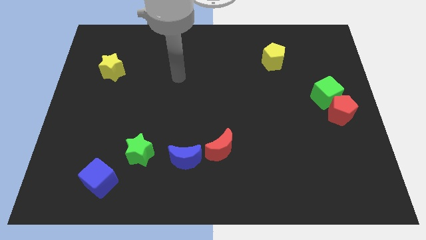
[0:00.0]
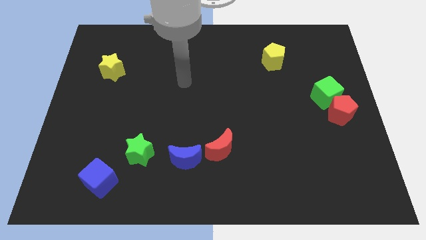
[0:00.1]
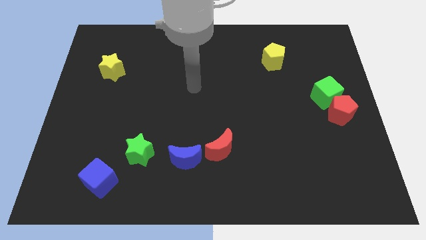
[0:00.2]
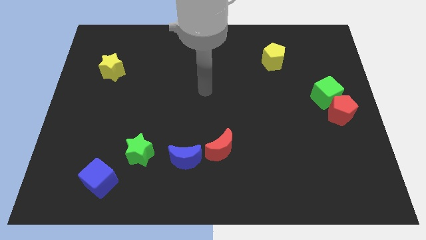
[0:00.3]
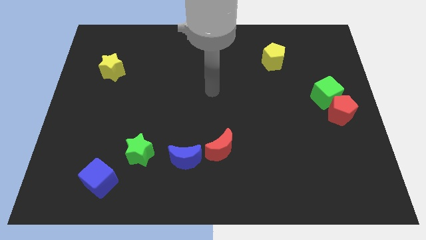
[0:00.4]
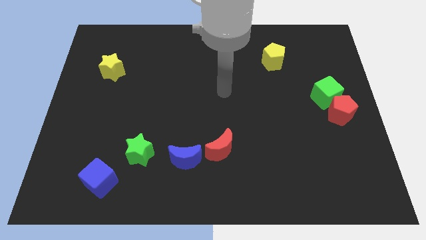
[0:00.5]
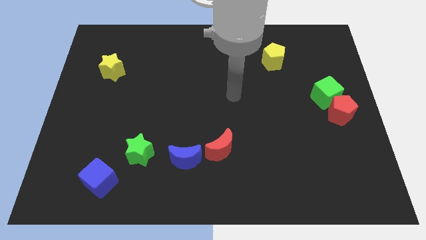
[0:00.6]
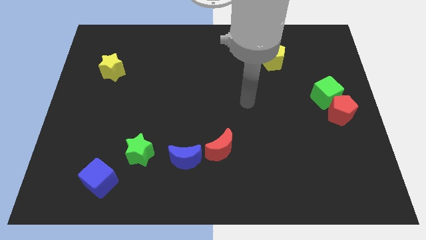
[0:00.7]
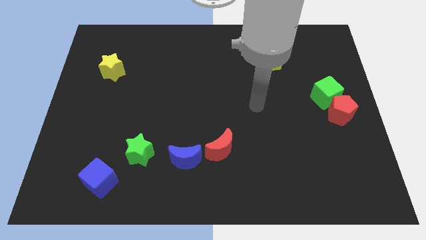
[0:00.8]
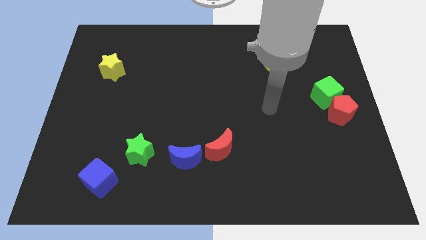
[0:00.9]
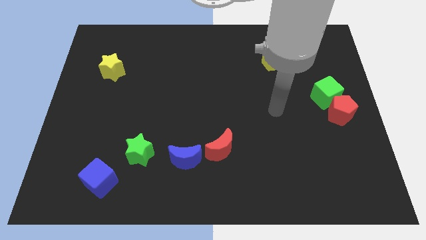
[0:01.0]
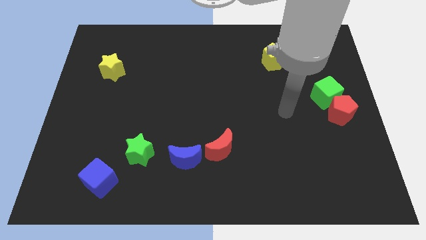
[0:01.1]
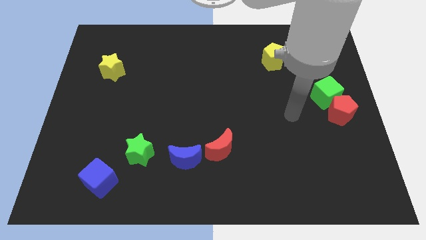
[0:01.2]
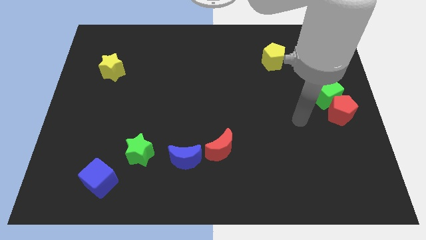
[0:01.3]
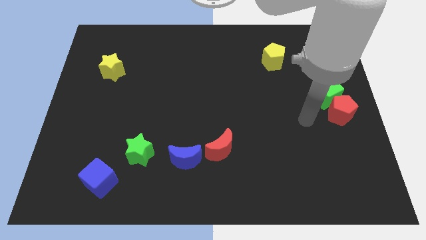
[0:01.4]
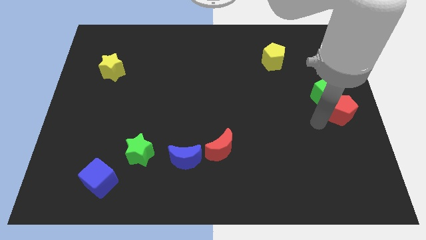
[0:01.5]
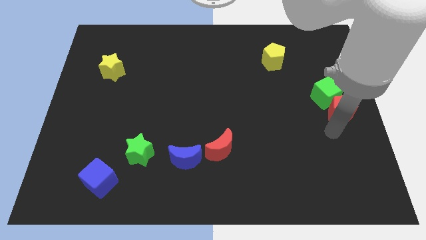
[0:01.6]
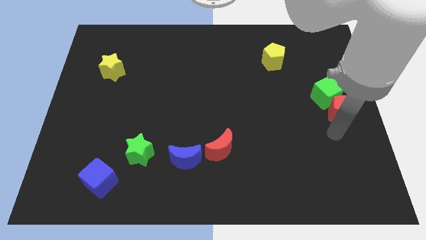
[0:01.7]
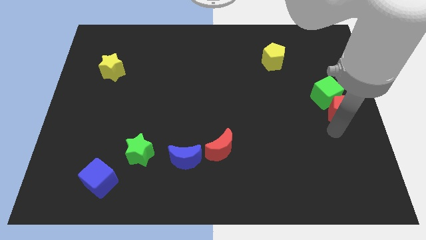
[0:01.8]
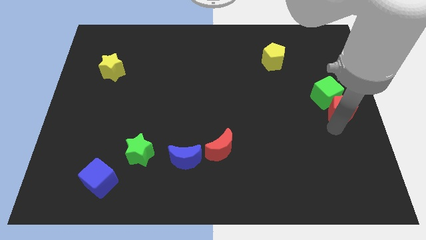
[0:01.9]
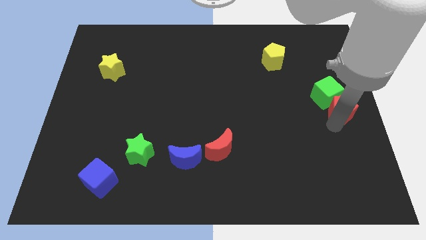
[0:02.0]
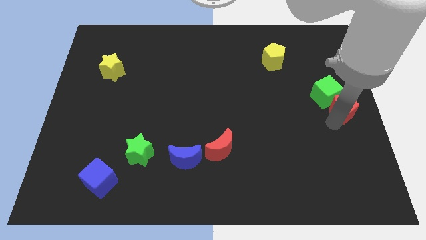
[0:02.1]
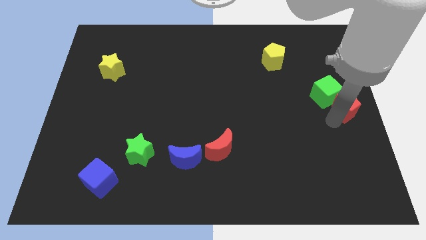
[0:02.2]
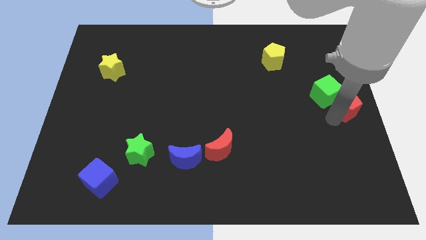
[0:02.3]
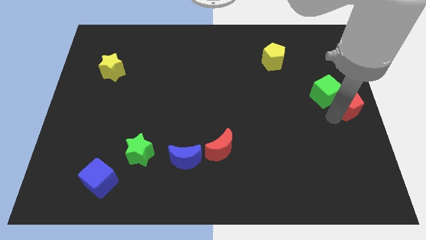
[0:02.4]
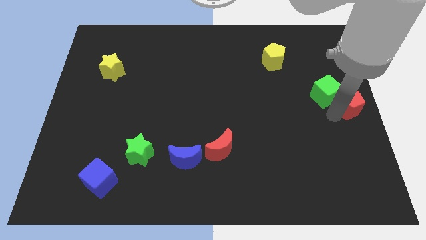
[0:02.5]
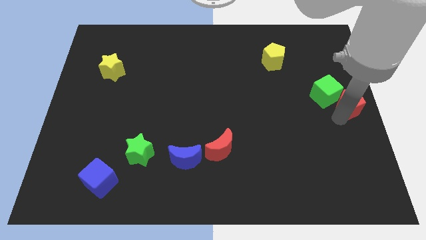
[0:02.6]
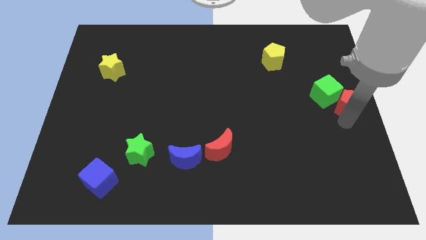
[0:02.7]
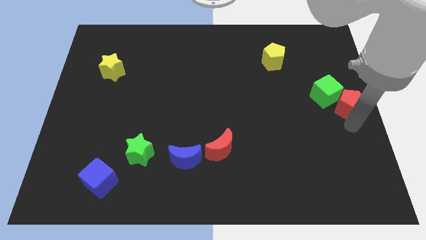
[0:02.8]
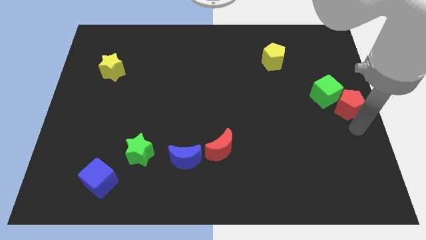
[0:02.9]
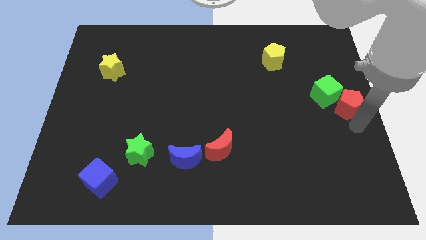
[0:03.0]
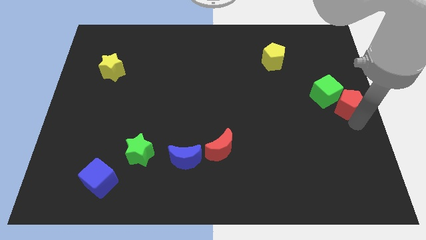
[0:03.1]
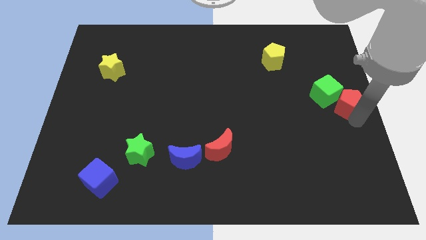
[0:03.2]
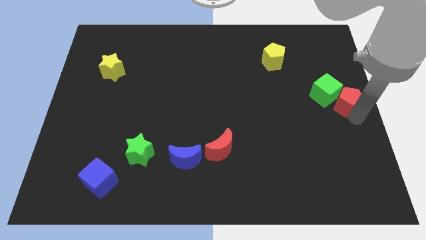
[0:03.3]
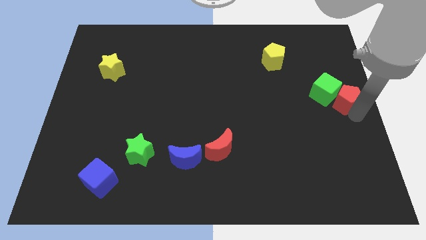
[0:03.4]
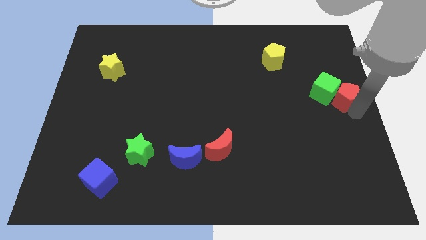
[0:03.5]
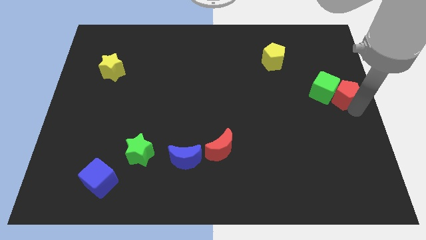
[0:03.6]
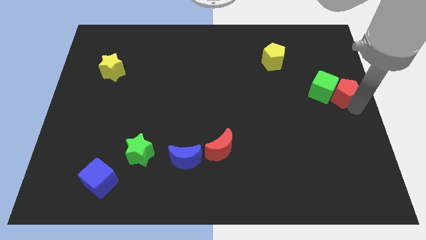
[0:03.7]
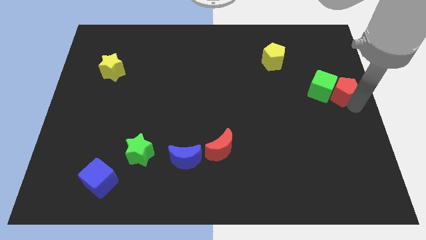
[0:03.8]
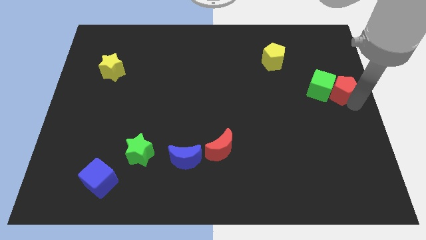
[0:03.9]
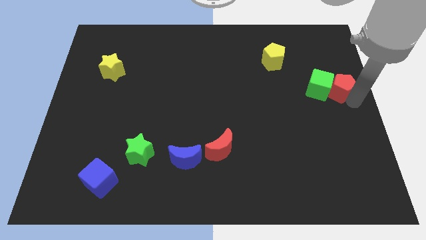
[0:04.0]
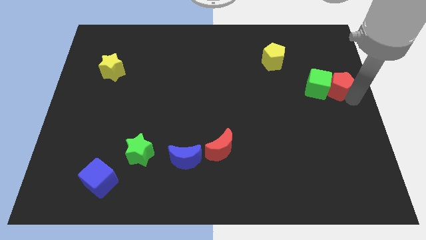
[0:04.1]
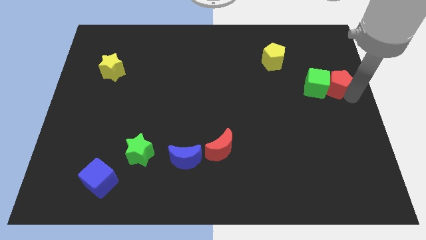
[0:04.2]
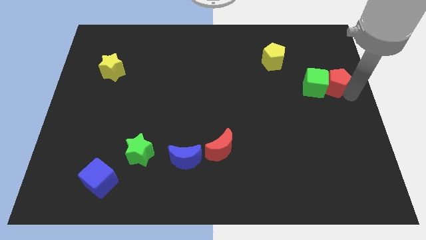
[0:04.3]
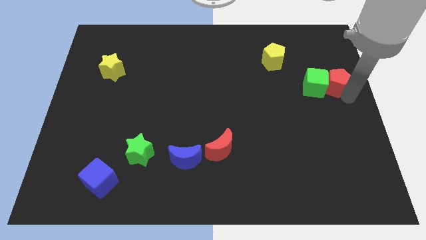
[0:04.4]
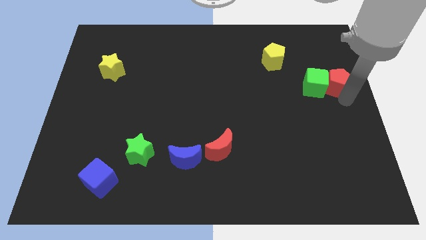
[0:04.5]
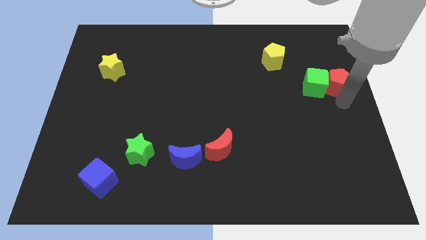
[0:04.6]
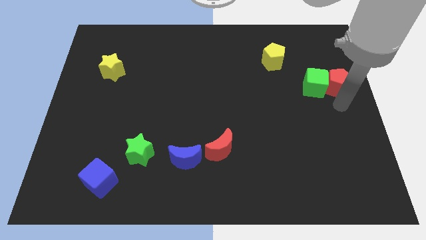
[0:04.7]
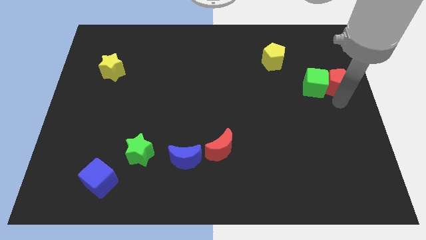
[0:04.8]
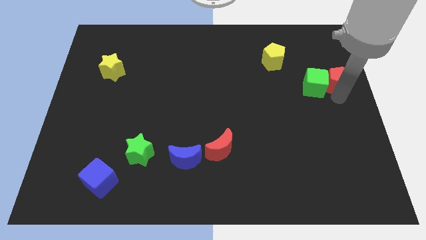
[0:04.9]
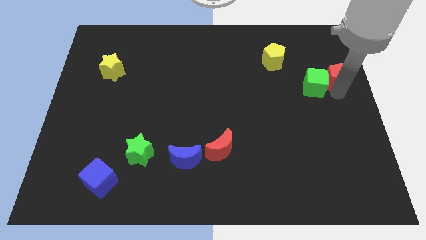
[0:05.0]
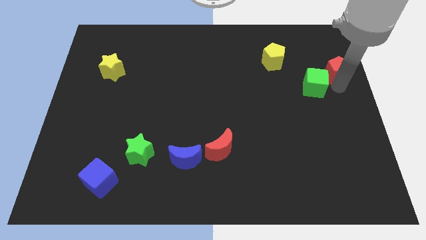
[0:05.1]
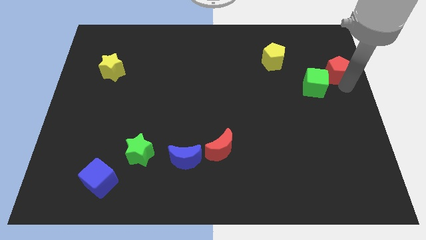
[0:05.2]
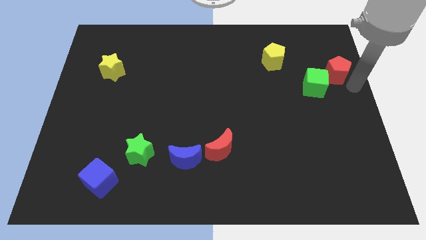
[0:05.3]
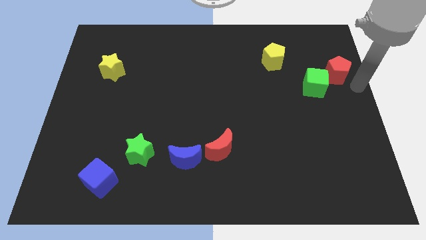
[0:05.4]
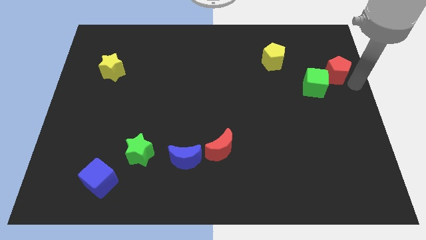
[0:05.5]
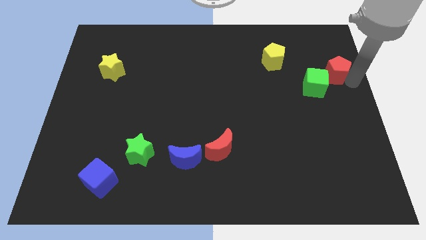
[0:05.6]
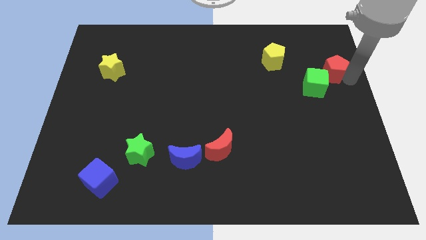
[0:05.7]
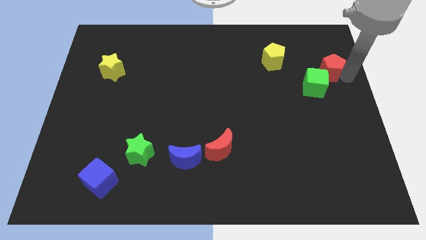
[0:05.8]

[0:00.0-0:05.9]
move the red pentagon to the top of the green cube

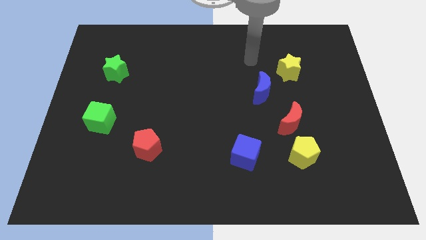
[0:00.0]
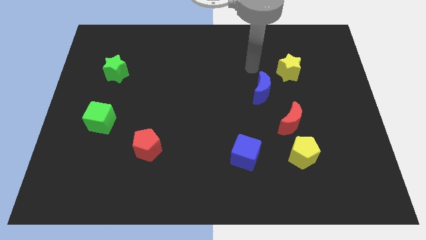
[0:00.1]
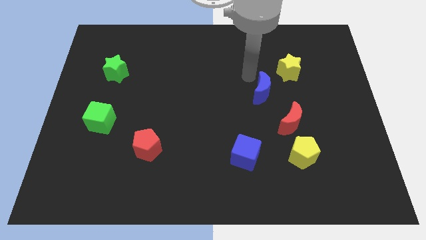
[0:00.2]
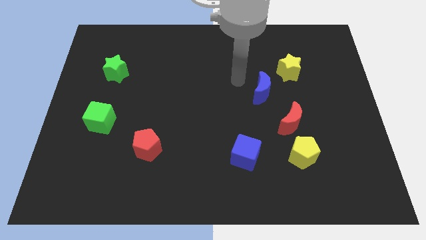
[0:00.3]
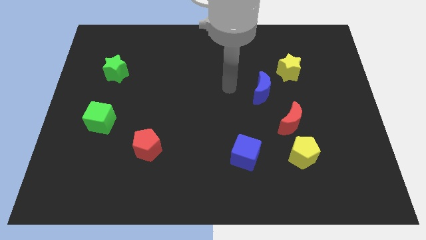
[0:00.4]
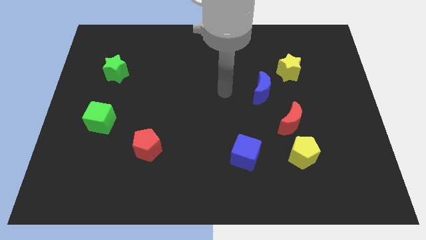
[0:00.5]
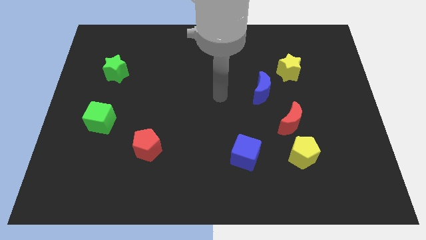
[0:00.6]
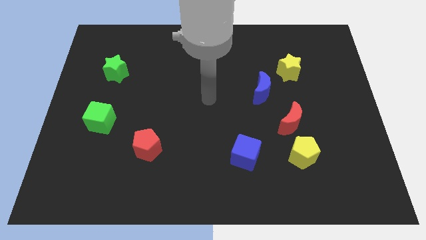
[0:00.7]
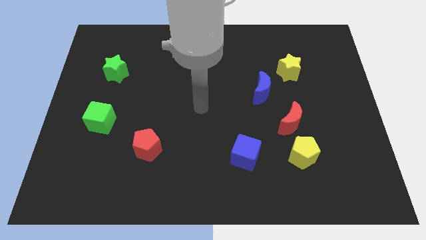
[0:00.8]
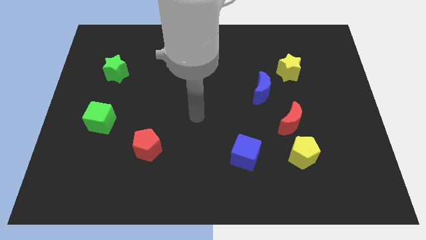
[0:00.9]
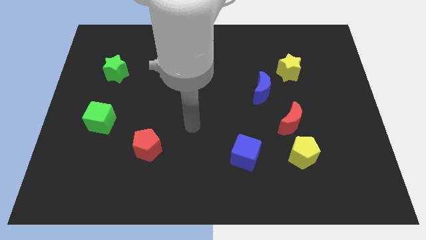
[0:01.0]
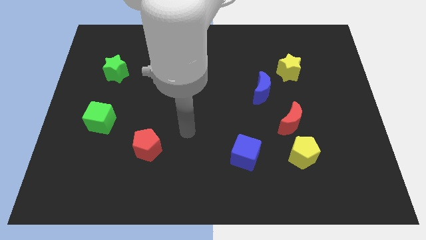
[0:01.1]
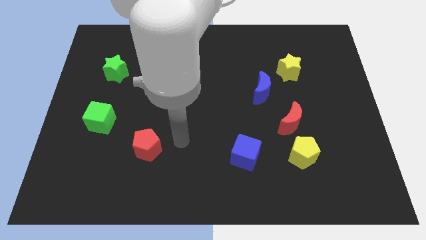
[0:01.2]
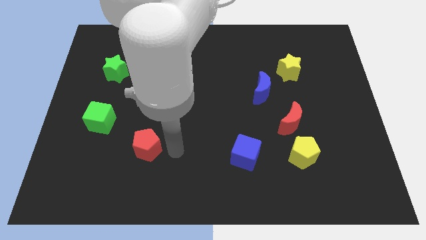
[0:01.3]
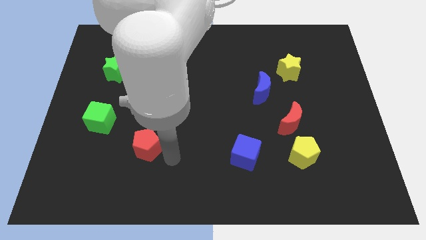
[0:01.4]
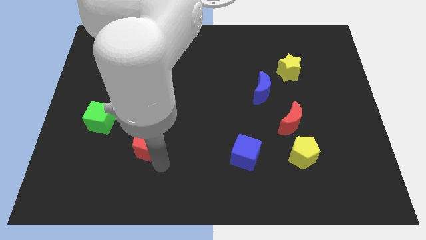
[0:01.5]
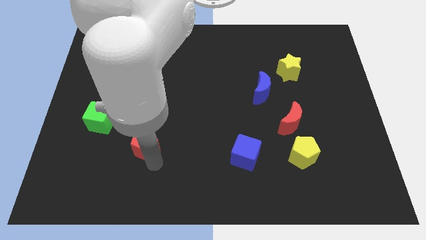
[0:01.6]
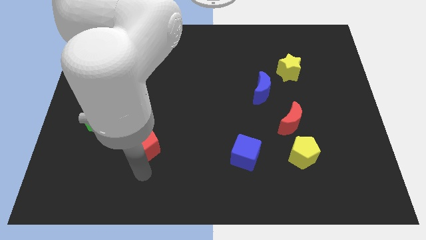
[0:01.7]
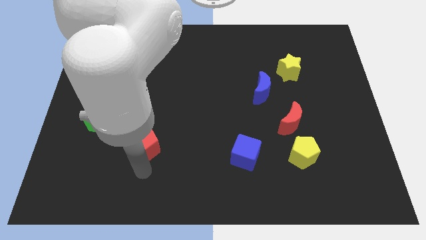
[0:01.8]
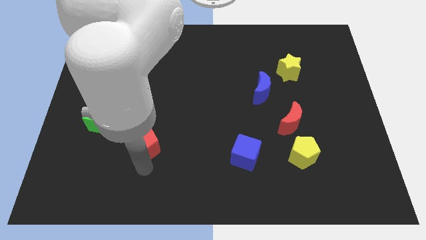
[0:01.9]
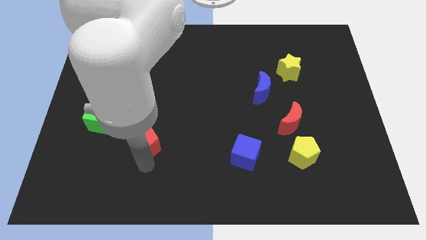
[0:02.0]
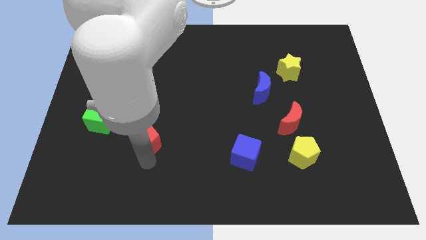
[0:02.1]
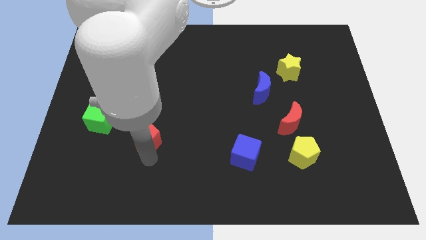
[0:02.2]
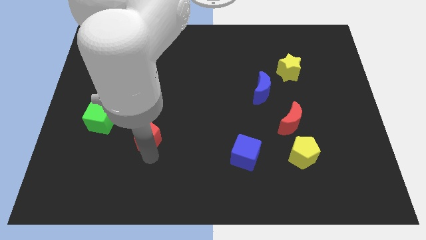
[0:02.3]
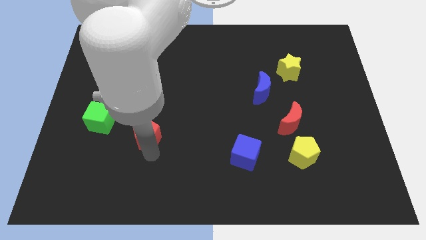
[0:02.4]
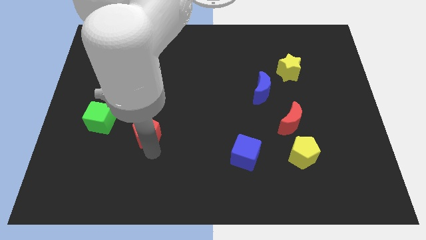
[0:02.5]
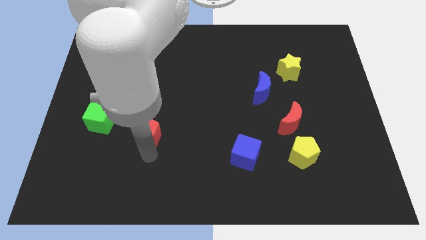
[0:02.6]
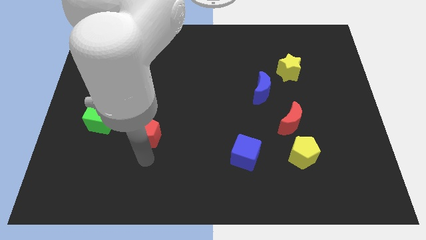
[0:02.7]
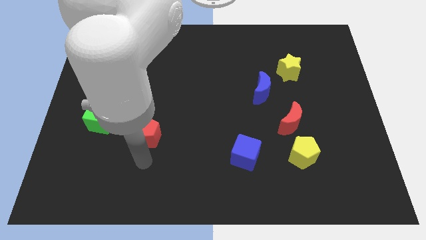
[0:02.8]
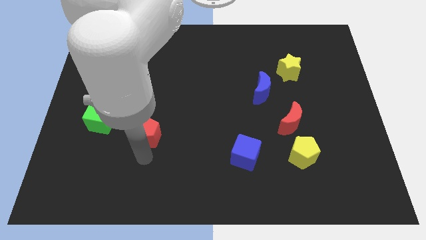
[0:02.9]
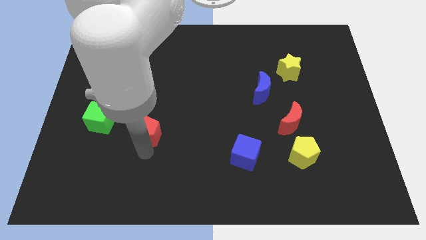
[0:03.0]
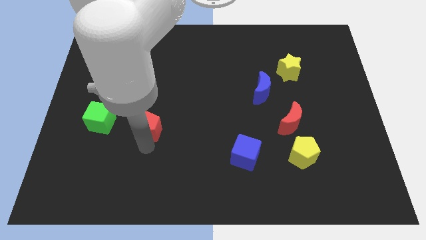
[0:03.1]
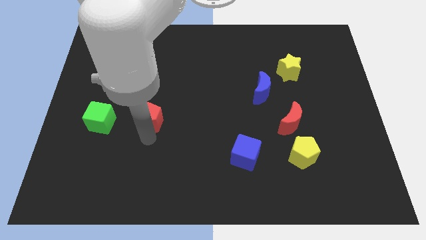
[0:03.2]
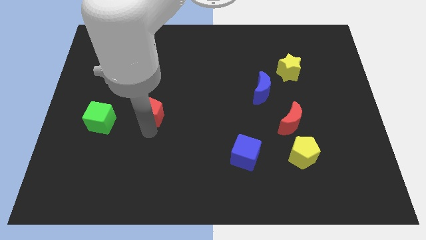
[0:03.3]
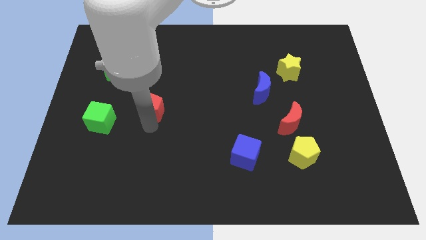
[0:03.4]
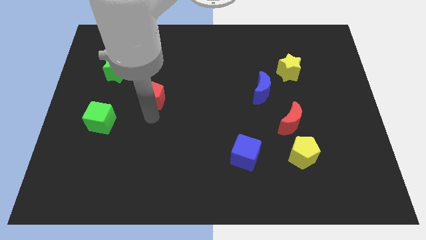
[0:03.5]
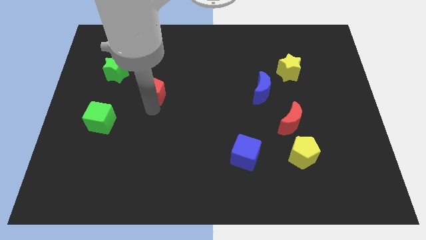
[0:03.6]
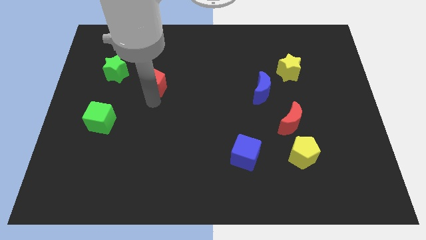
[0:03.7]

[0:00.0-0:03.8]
push the red pentagon to the right of the green star
